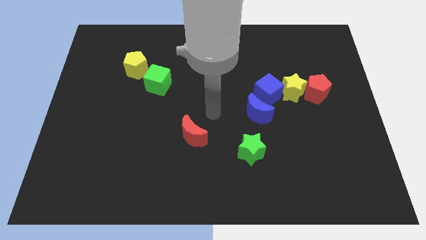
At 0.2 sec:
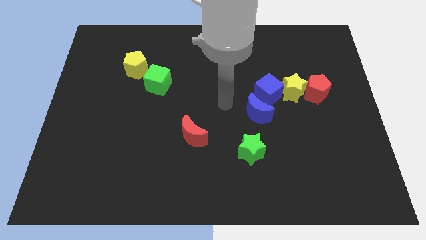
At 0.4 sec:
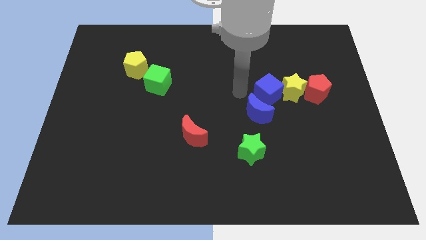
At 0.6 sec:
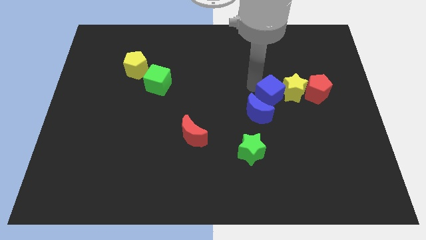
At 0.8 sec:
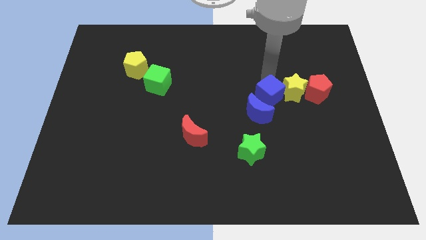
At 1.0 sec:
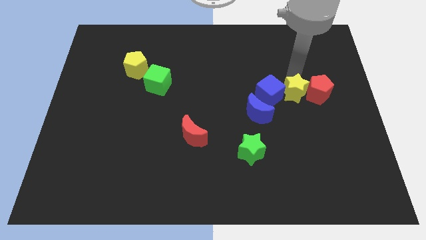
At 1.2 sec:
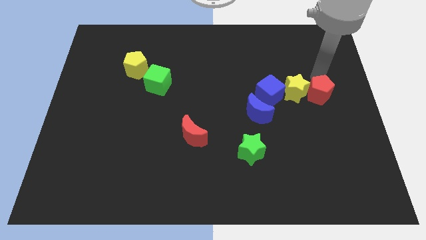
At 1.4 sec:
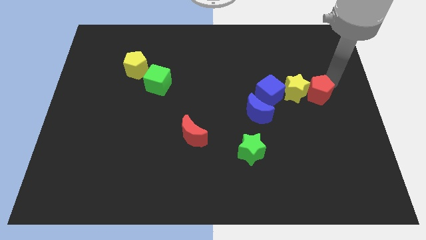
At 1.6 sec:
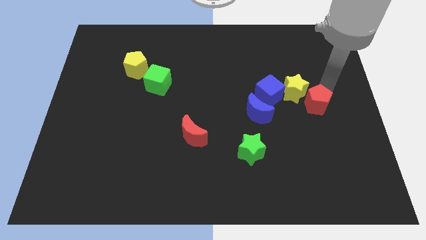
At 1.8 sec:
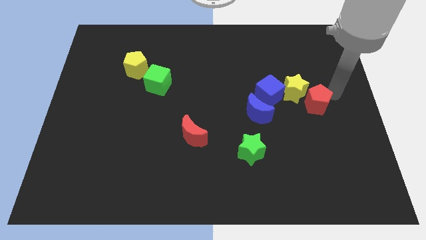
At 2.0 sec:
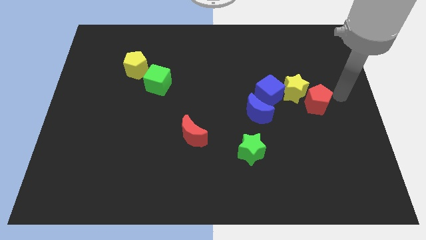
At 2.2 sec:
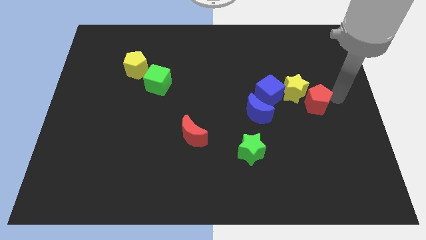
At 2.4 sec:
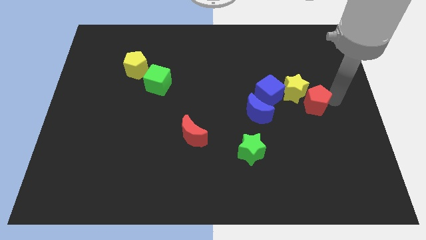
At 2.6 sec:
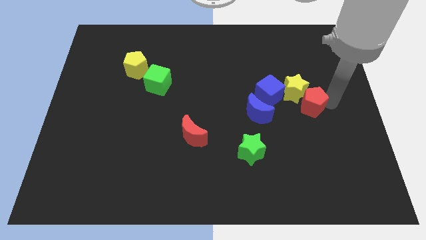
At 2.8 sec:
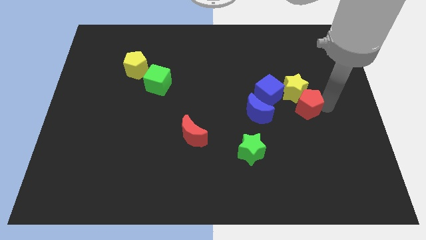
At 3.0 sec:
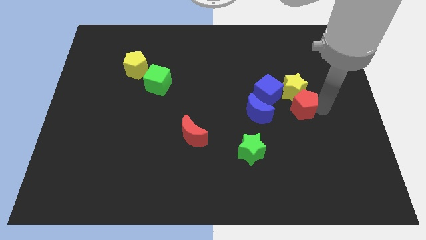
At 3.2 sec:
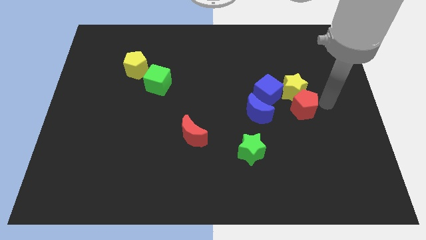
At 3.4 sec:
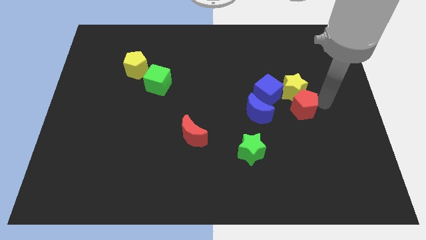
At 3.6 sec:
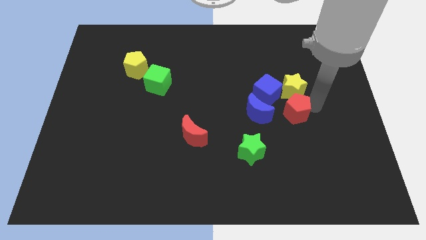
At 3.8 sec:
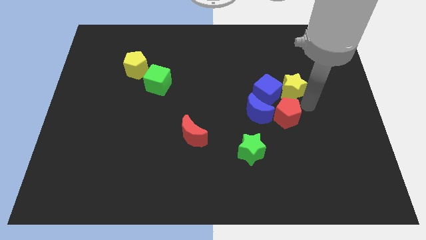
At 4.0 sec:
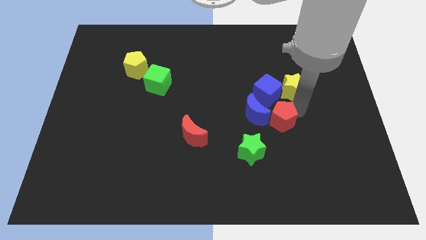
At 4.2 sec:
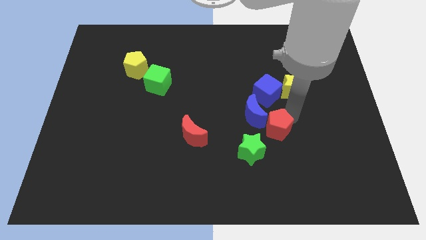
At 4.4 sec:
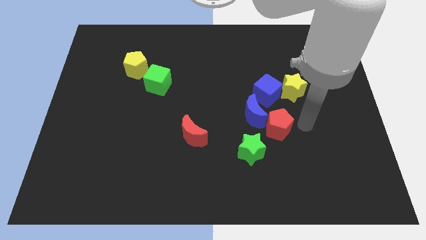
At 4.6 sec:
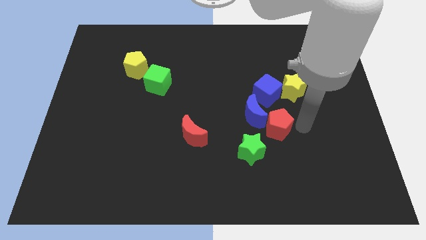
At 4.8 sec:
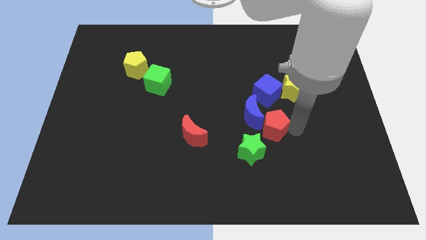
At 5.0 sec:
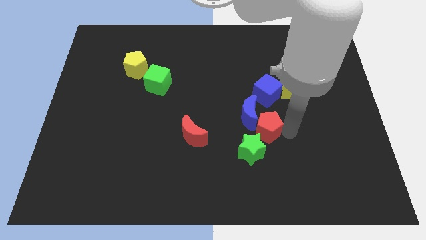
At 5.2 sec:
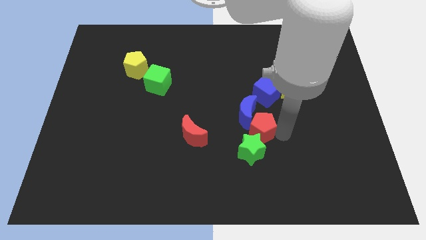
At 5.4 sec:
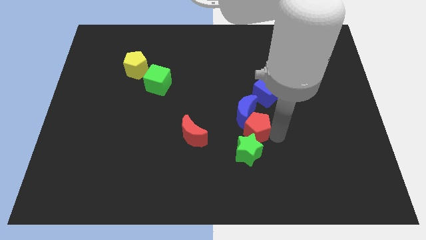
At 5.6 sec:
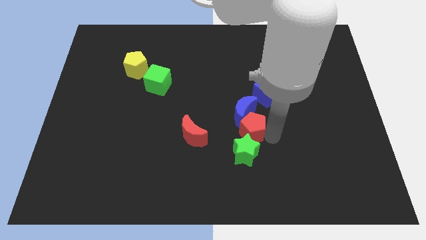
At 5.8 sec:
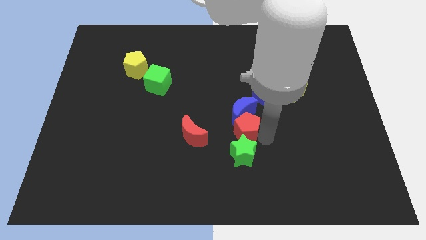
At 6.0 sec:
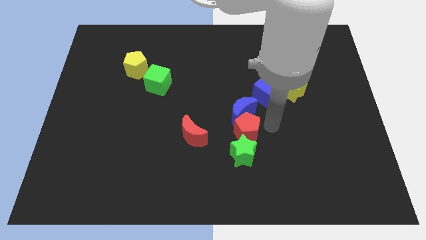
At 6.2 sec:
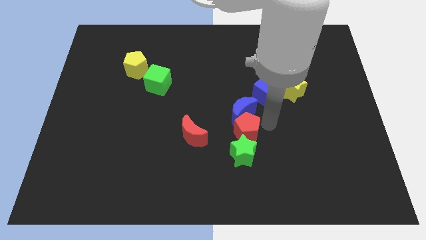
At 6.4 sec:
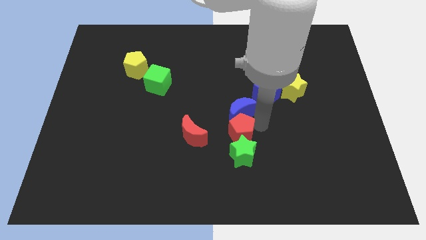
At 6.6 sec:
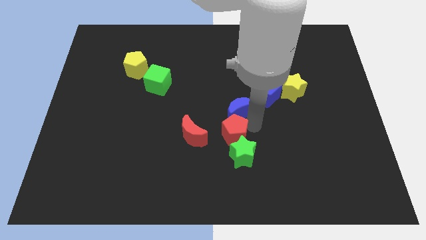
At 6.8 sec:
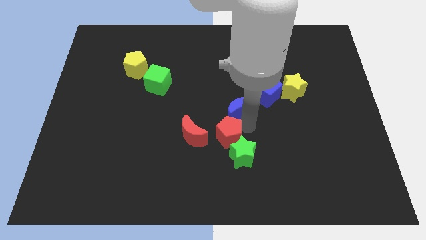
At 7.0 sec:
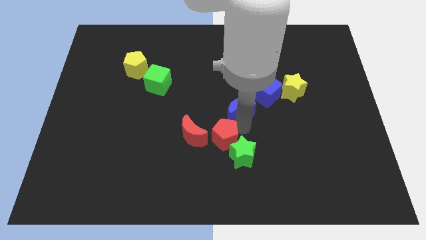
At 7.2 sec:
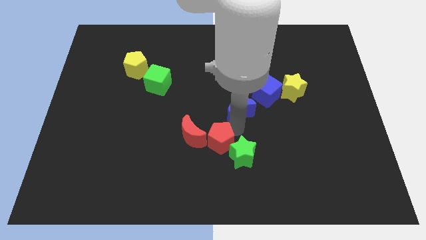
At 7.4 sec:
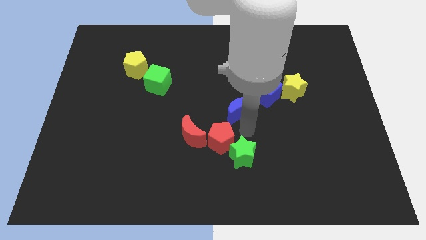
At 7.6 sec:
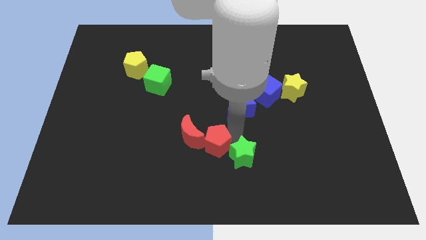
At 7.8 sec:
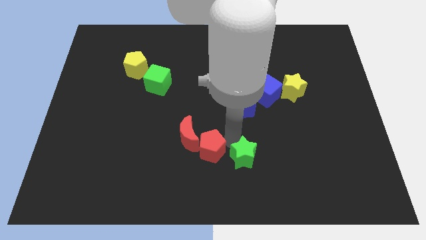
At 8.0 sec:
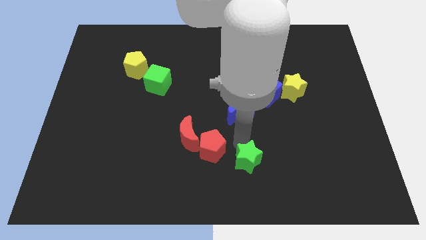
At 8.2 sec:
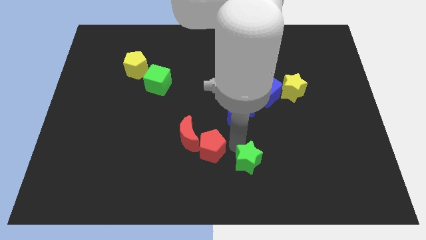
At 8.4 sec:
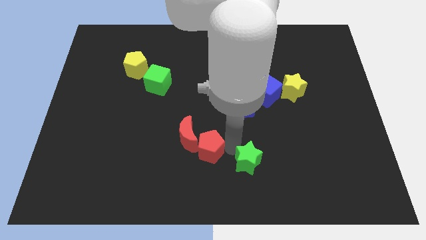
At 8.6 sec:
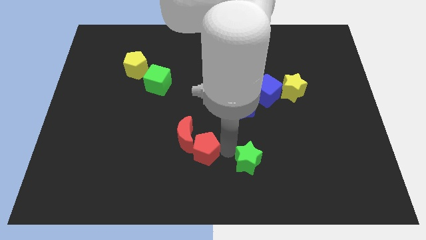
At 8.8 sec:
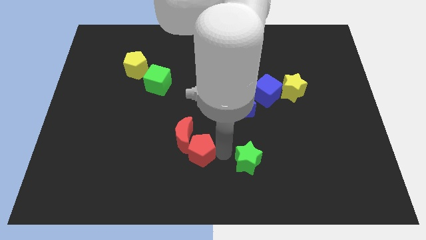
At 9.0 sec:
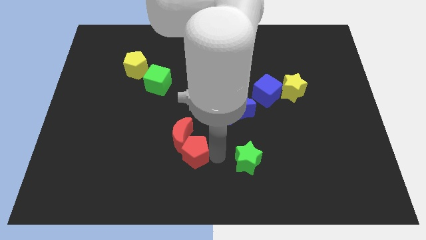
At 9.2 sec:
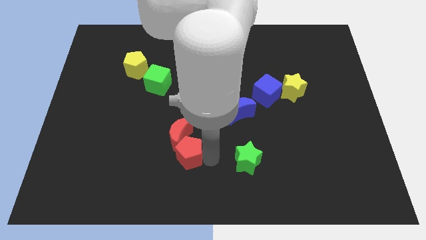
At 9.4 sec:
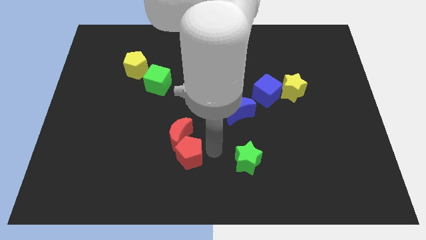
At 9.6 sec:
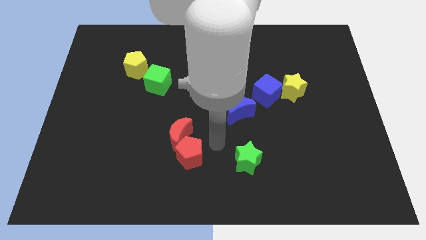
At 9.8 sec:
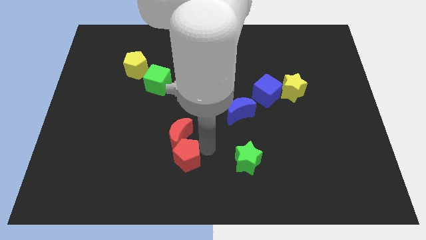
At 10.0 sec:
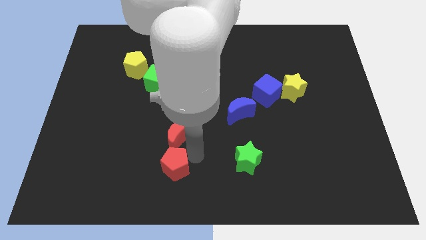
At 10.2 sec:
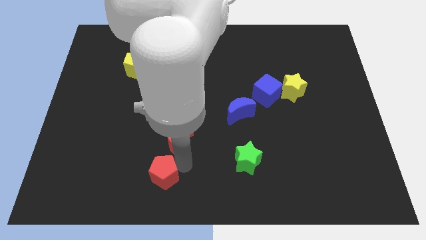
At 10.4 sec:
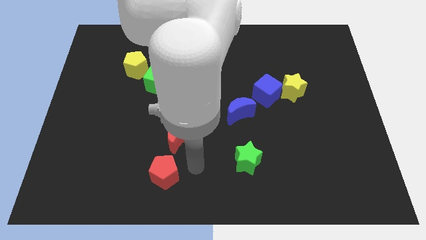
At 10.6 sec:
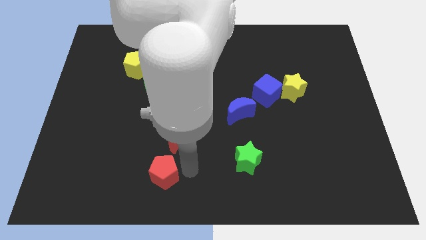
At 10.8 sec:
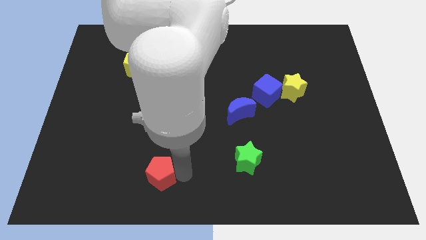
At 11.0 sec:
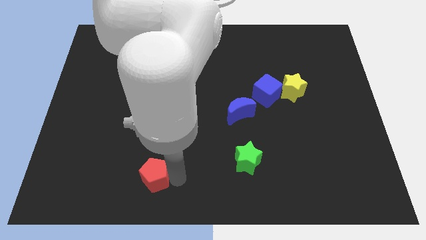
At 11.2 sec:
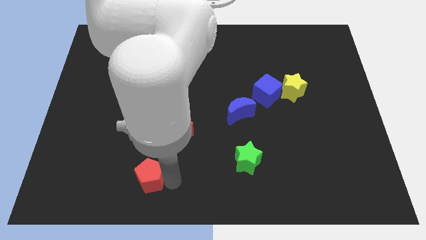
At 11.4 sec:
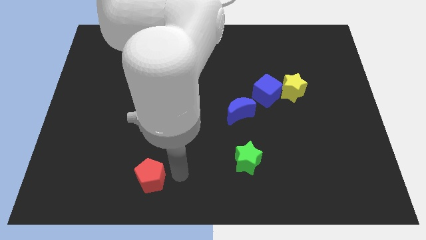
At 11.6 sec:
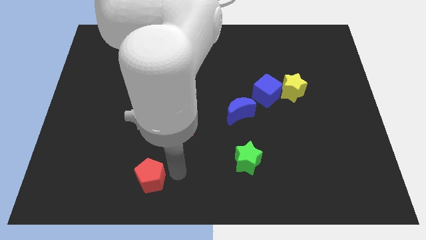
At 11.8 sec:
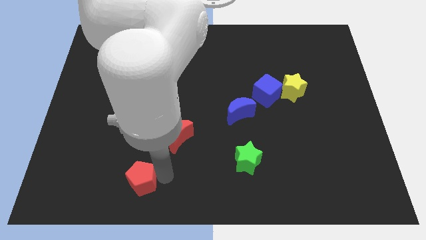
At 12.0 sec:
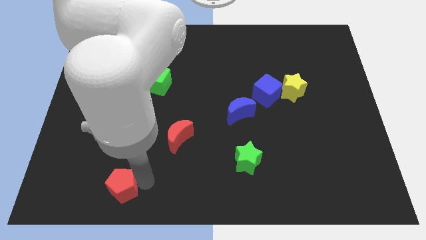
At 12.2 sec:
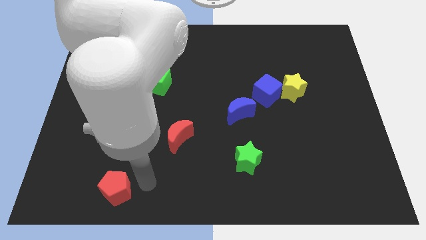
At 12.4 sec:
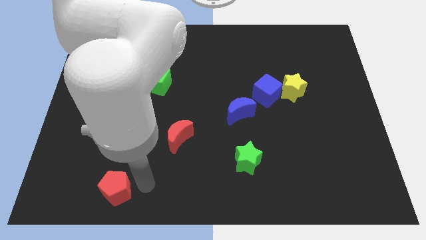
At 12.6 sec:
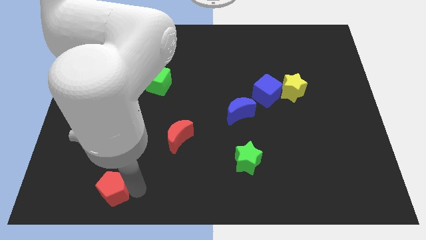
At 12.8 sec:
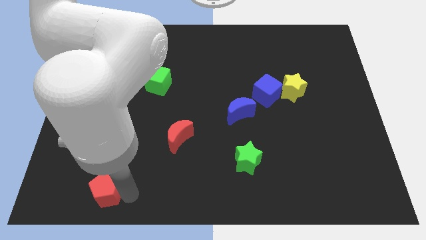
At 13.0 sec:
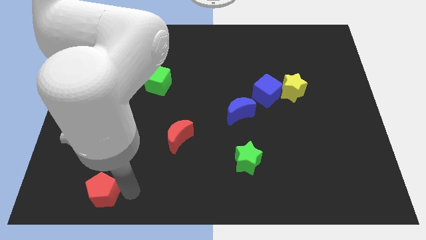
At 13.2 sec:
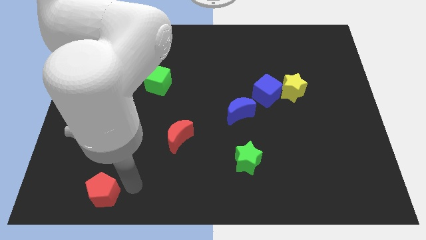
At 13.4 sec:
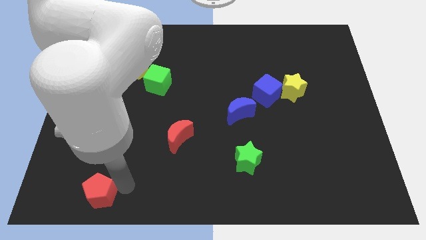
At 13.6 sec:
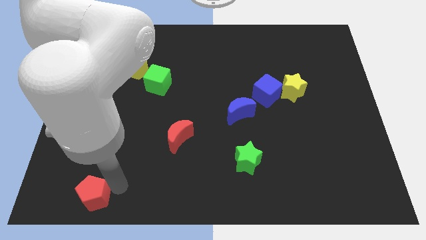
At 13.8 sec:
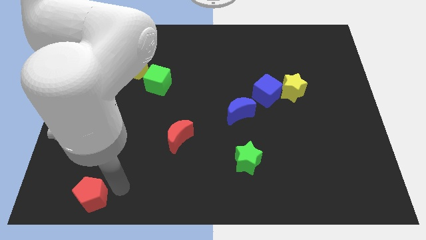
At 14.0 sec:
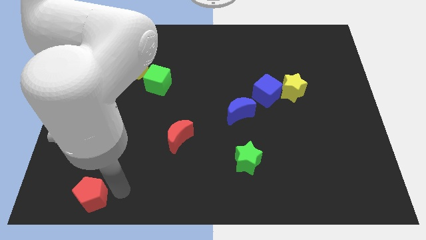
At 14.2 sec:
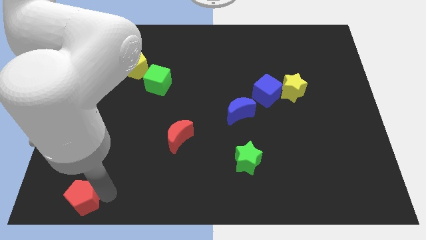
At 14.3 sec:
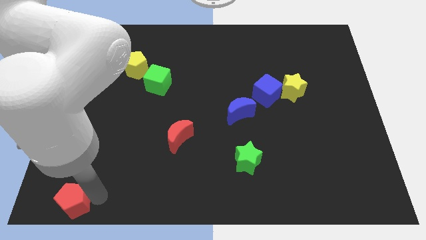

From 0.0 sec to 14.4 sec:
slide the red pentagon to the lower left corner
